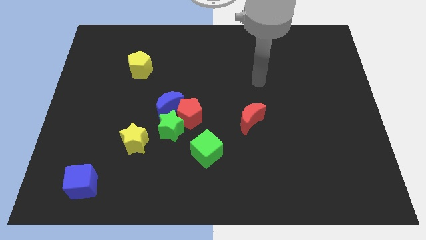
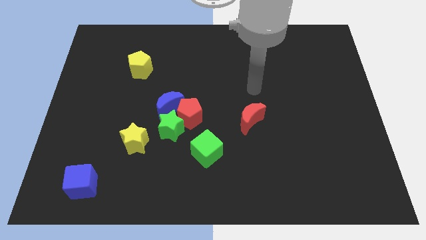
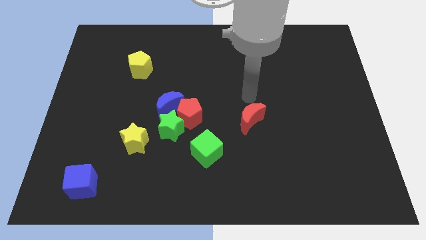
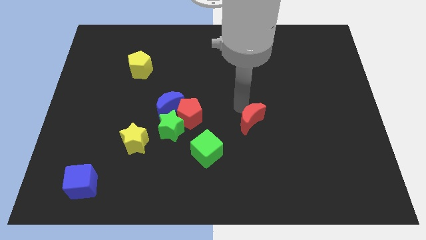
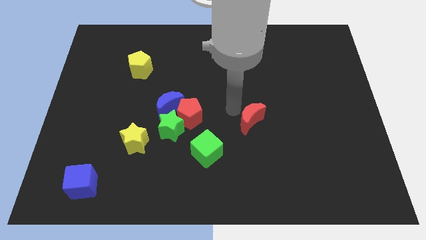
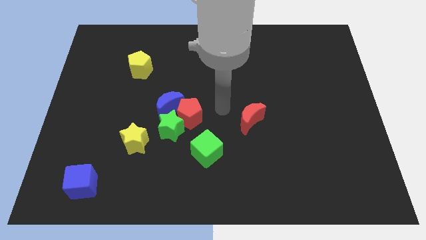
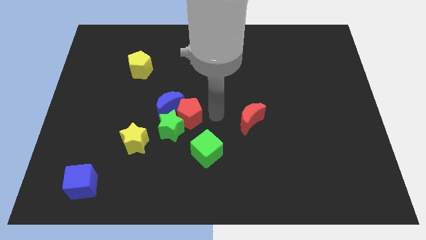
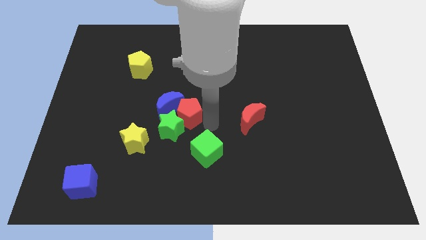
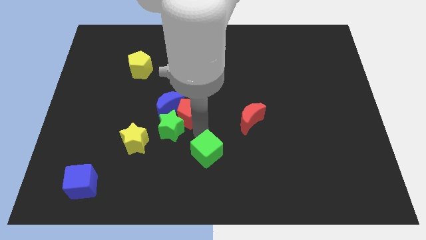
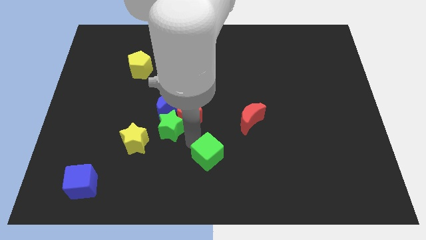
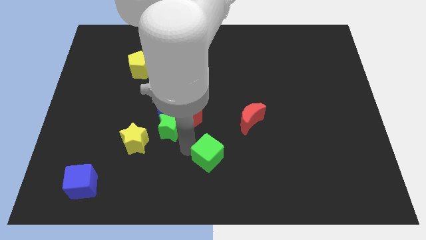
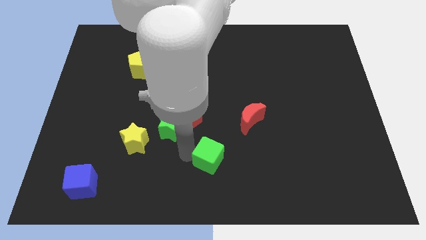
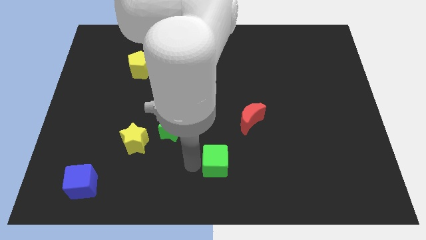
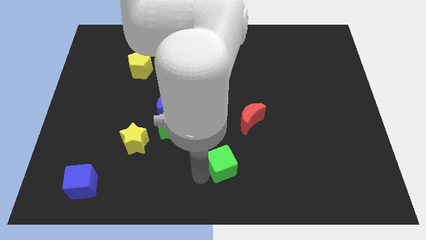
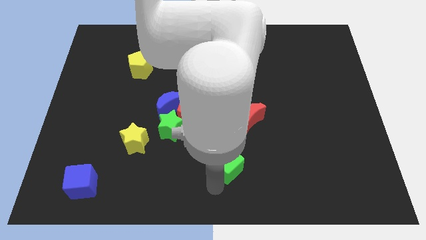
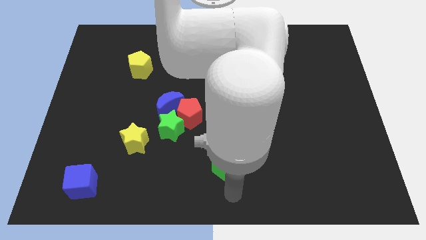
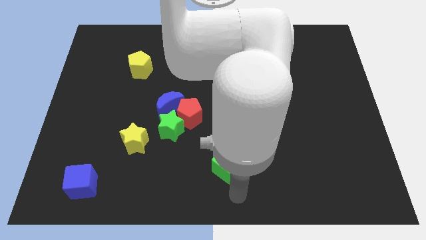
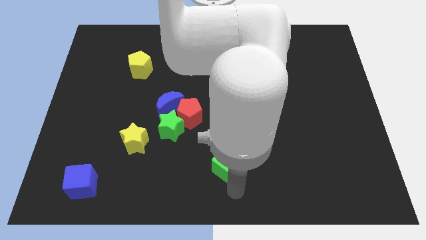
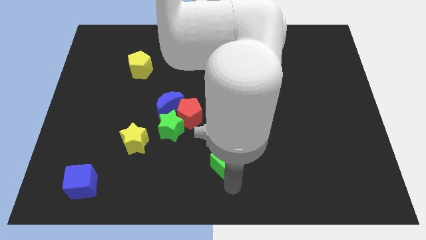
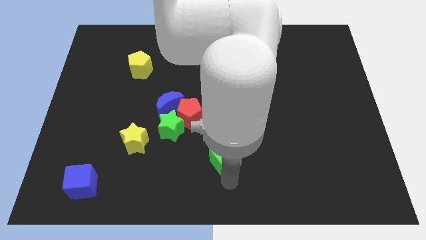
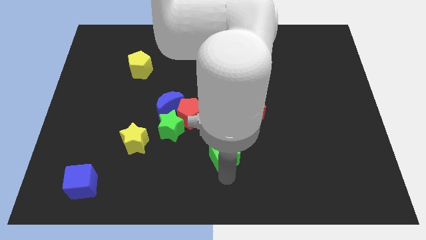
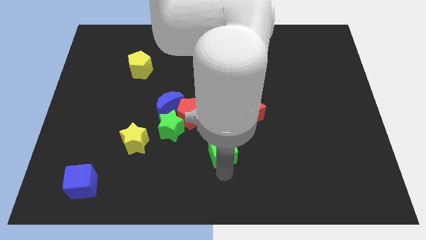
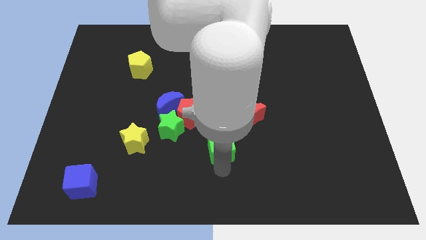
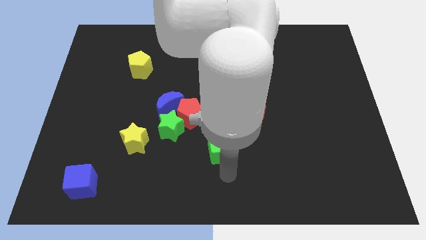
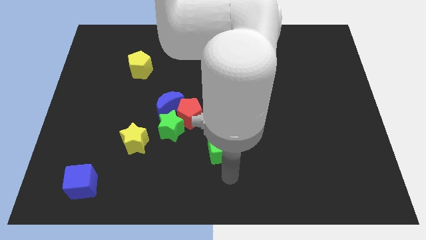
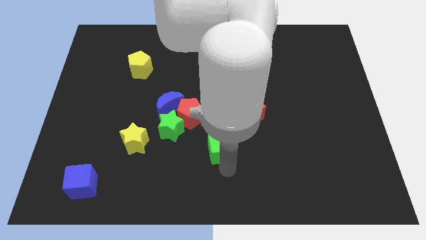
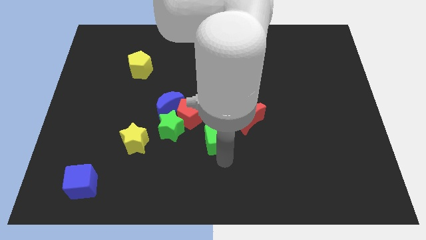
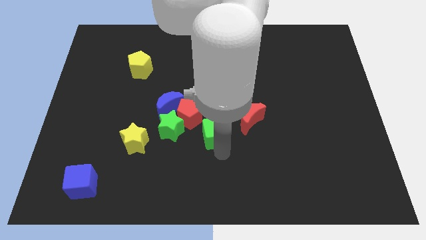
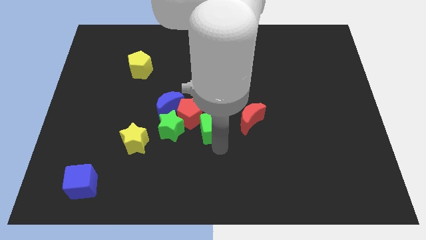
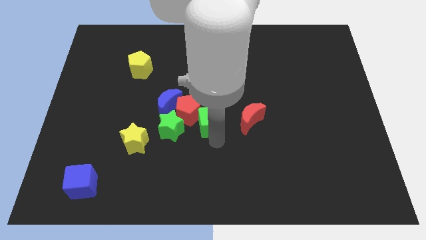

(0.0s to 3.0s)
slide the green cube upwards a little

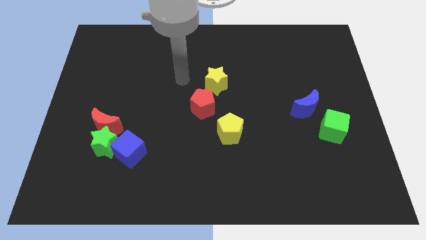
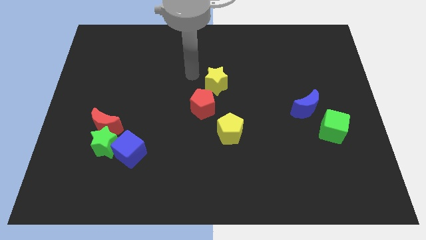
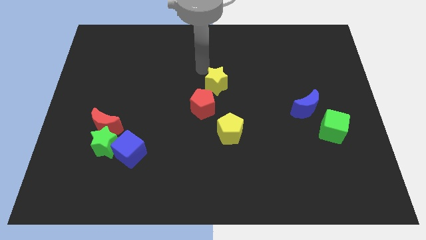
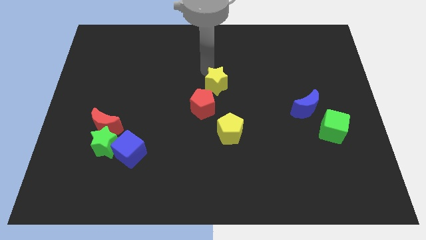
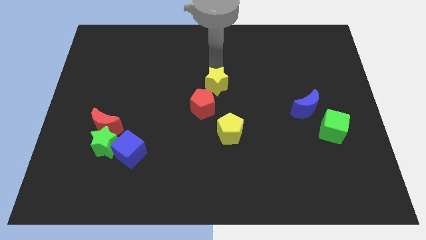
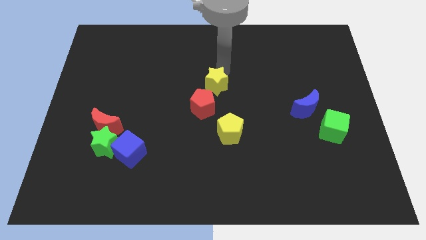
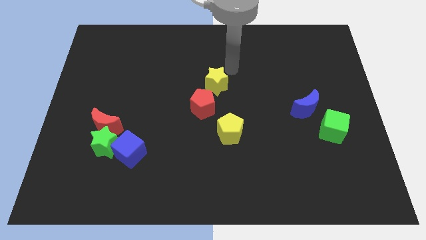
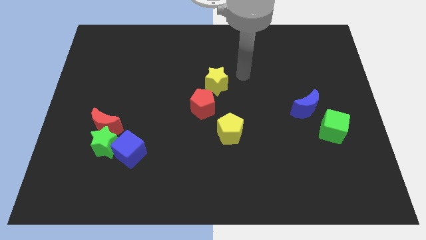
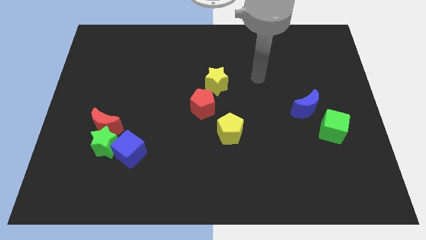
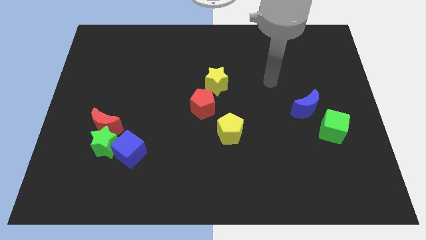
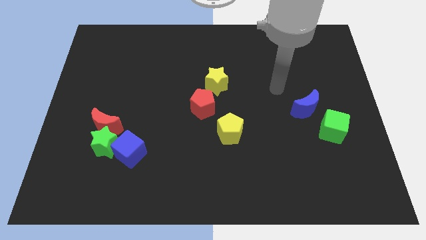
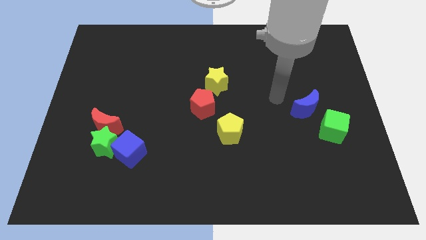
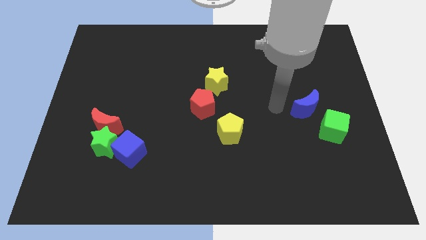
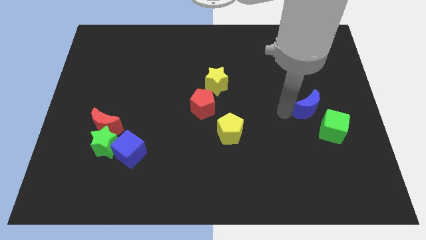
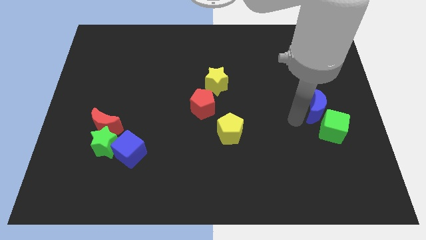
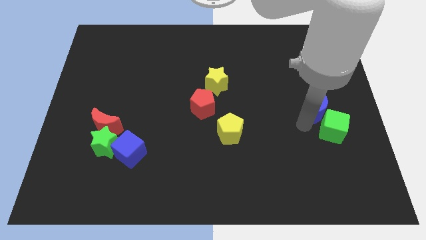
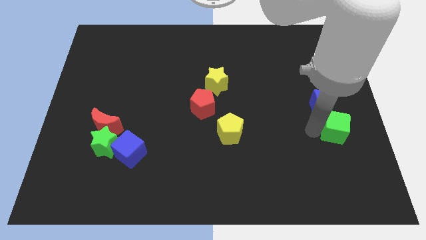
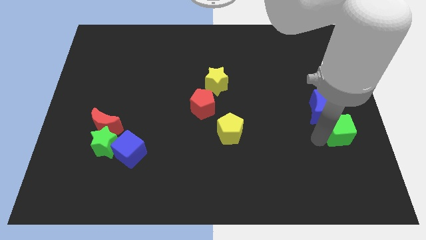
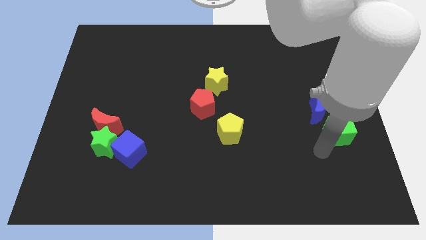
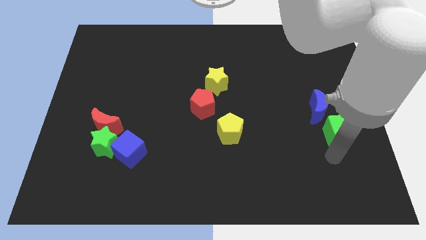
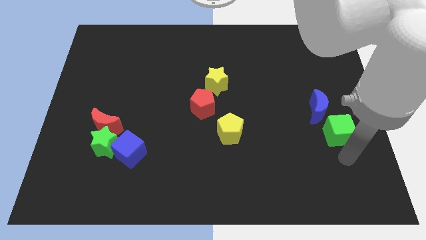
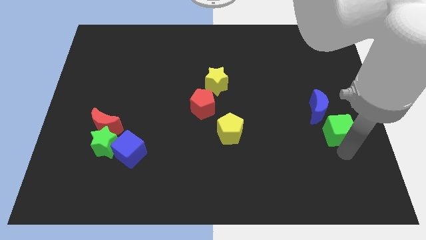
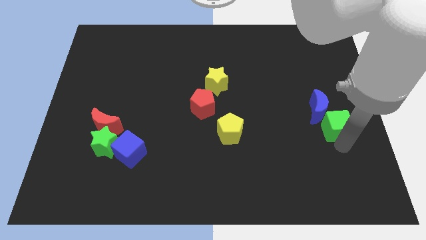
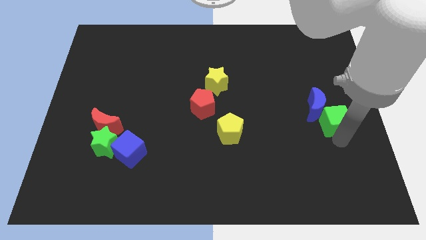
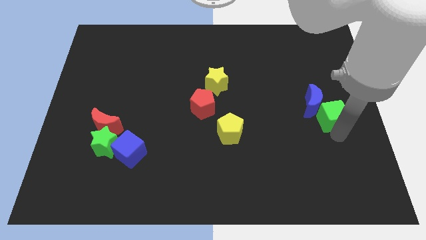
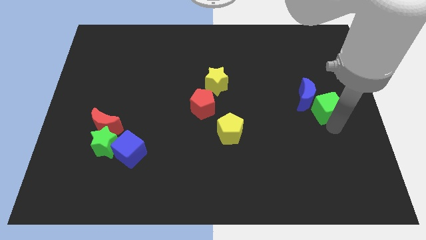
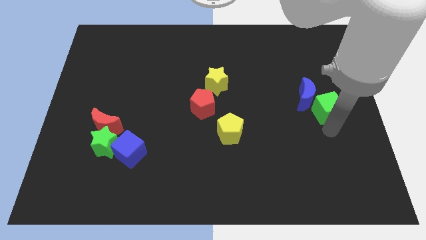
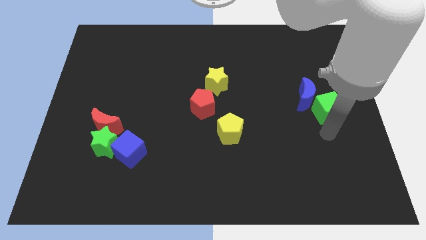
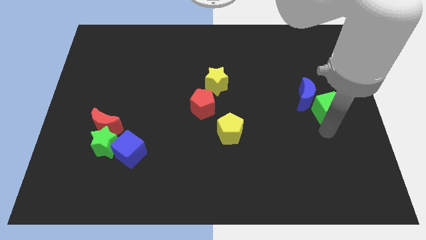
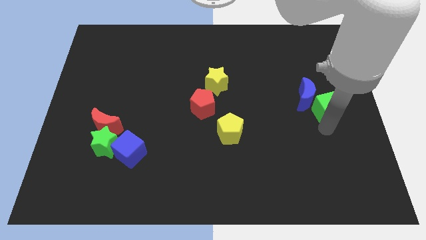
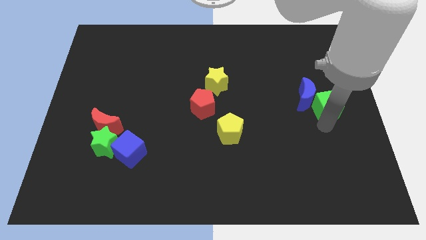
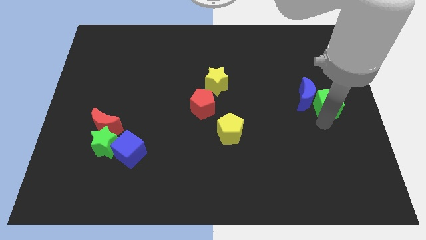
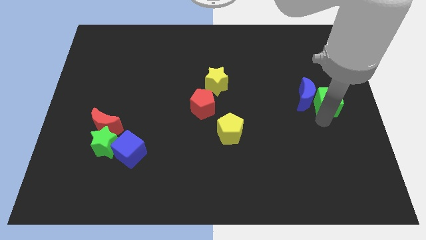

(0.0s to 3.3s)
move the green cube upwards a little

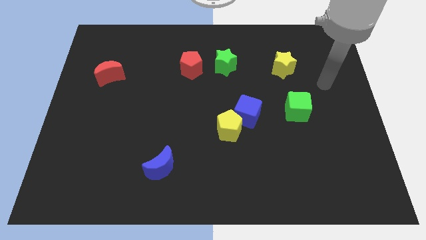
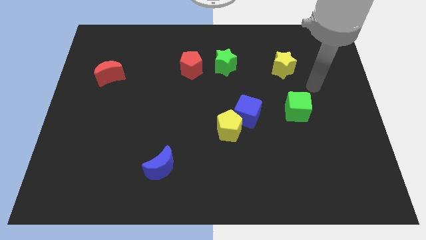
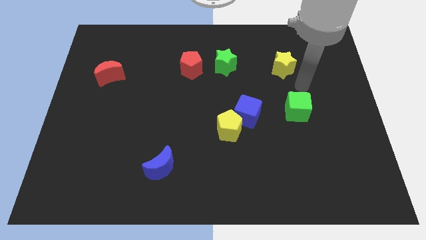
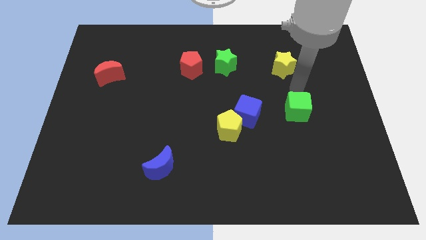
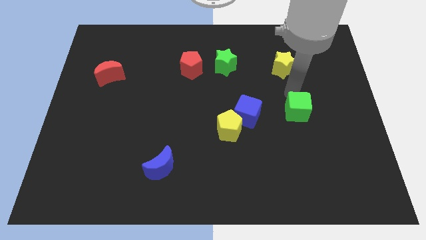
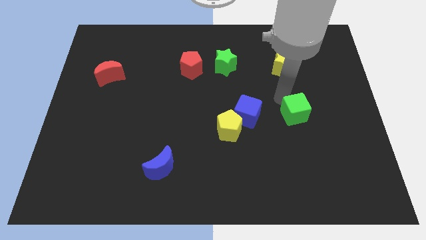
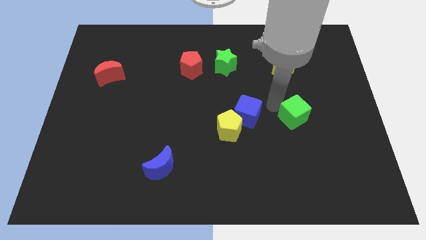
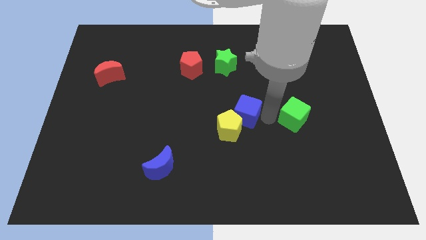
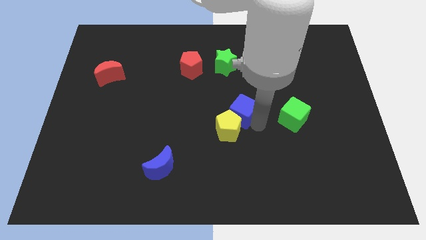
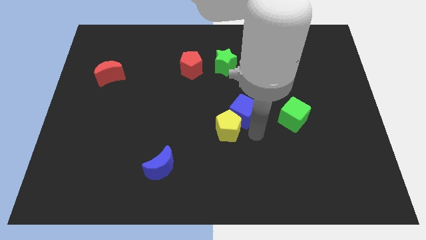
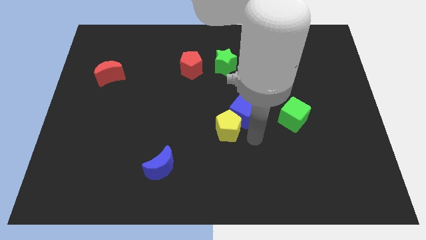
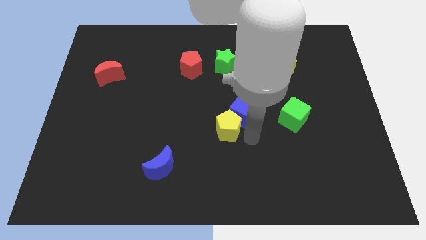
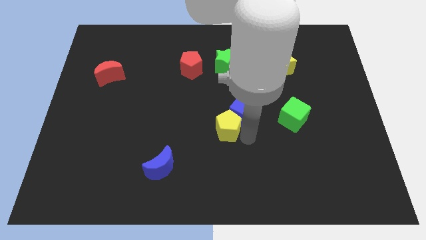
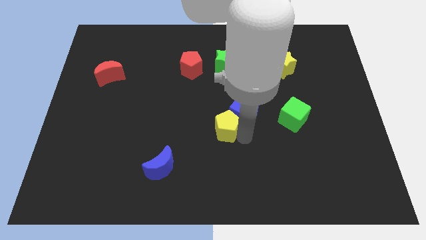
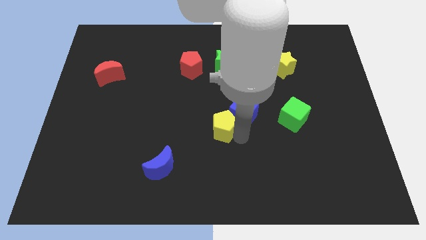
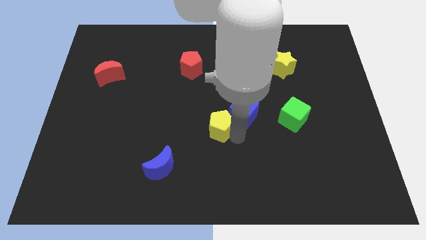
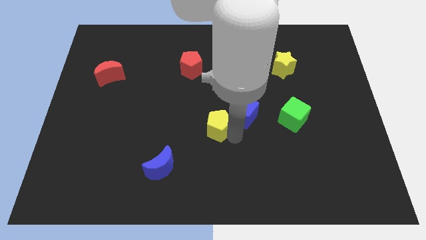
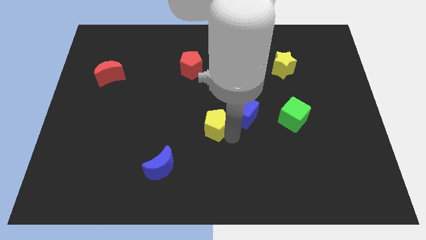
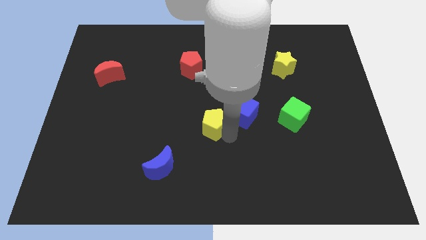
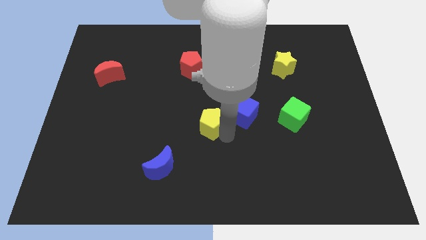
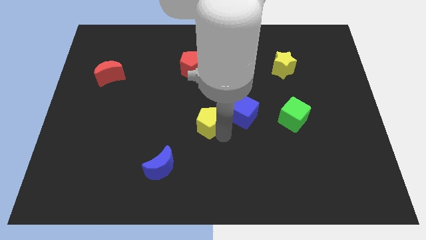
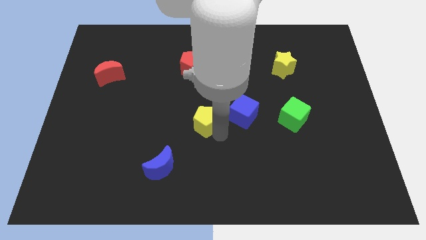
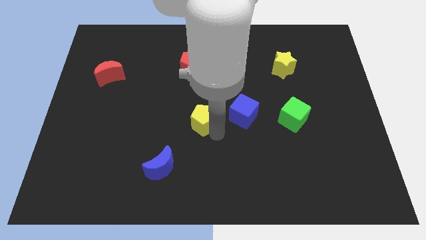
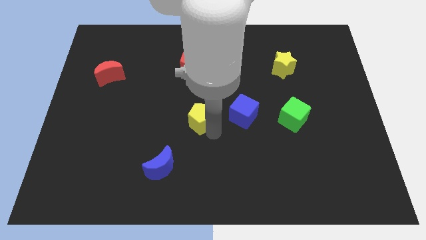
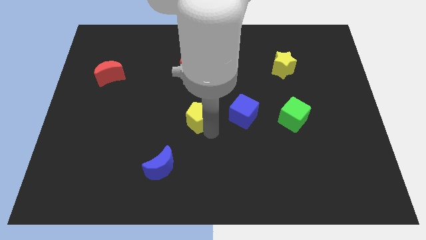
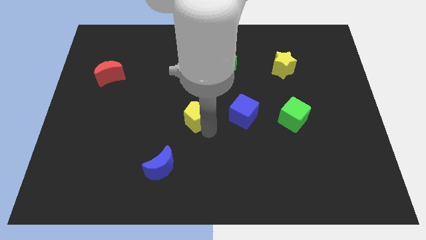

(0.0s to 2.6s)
move the yellow pentagon somewhat up and to the left
